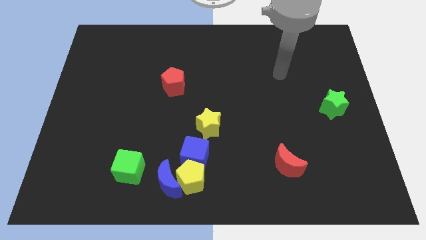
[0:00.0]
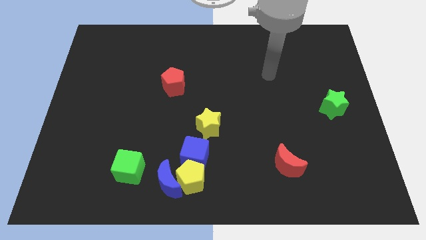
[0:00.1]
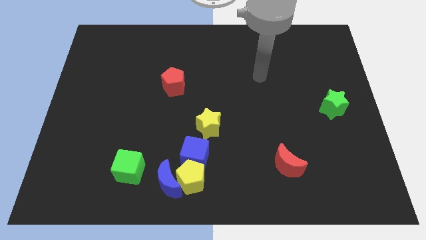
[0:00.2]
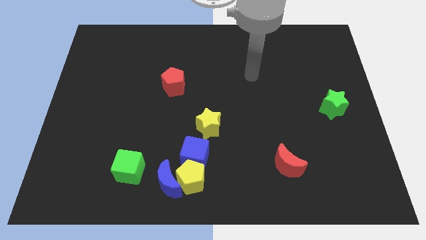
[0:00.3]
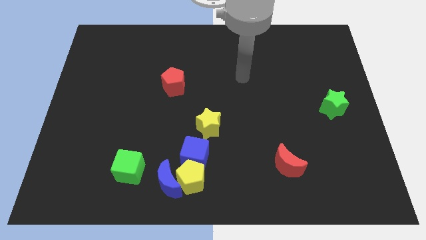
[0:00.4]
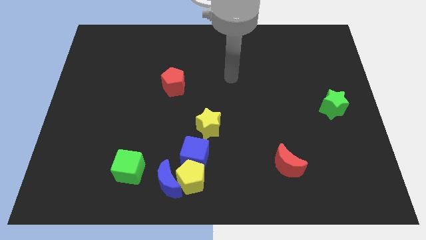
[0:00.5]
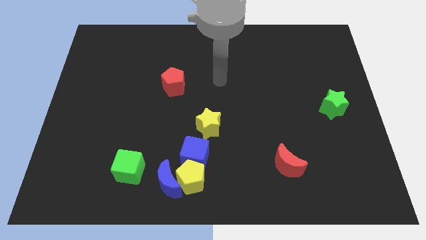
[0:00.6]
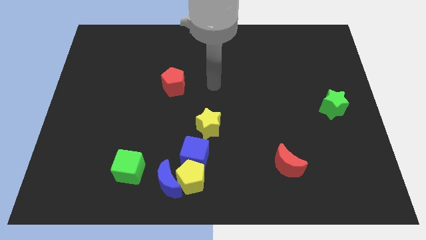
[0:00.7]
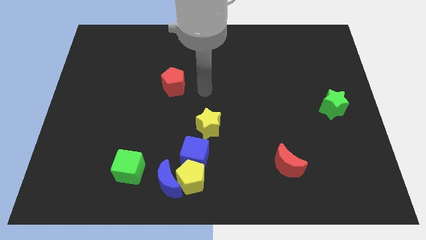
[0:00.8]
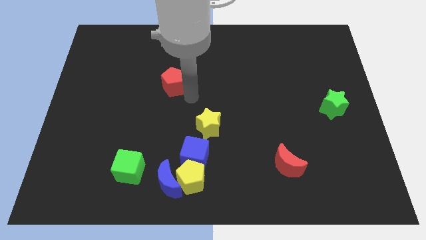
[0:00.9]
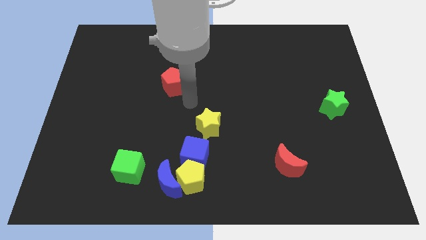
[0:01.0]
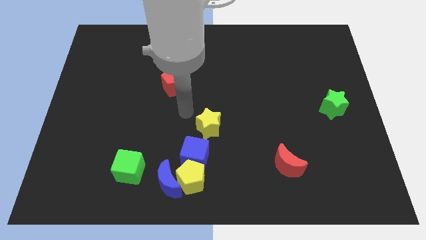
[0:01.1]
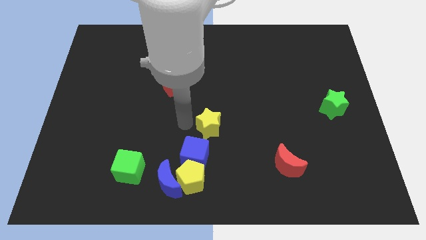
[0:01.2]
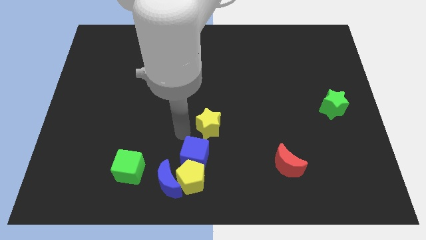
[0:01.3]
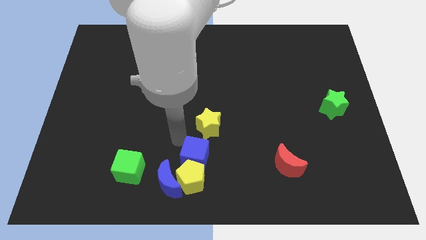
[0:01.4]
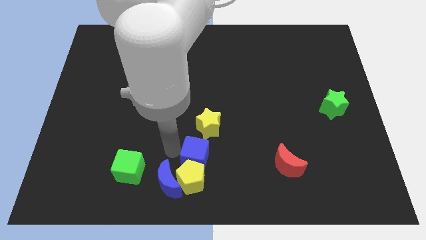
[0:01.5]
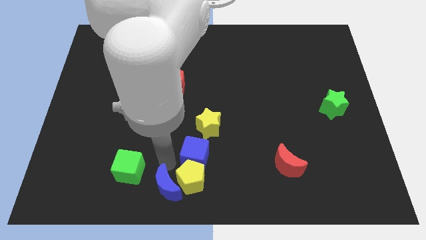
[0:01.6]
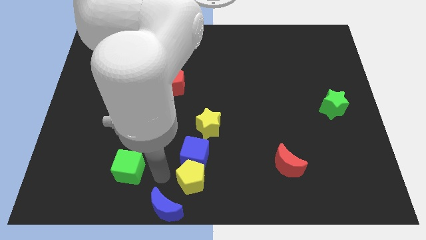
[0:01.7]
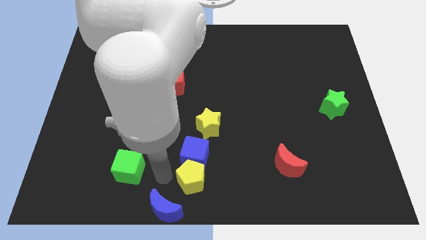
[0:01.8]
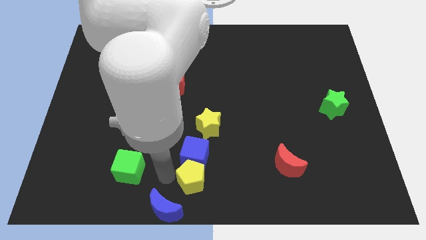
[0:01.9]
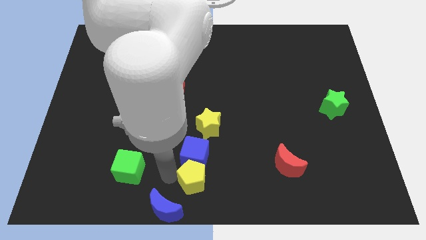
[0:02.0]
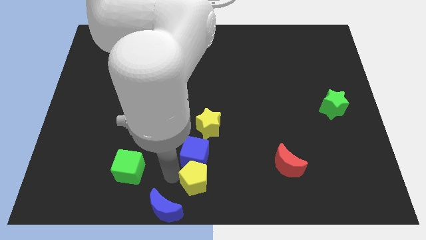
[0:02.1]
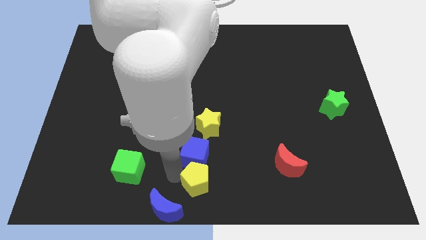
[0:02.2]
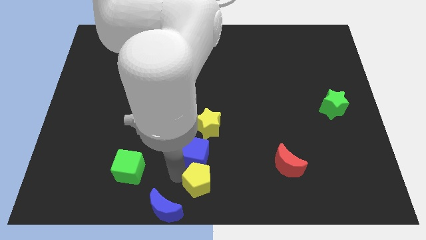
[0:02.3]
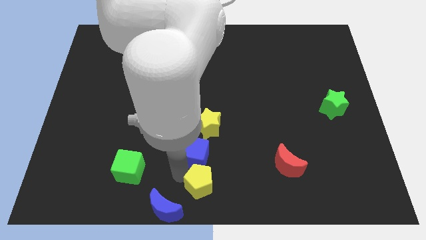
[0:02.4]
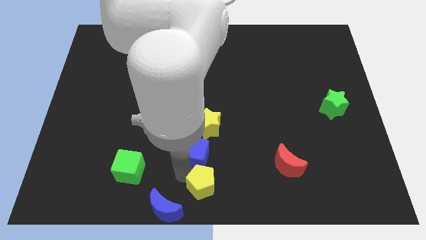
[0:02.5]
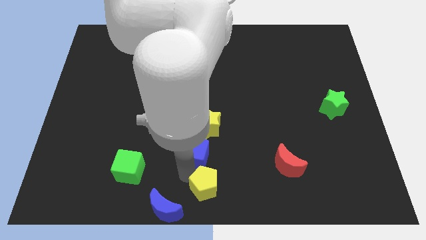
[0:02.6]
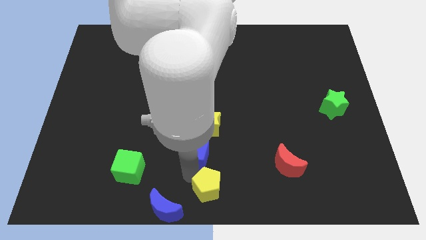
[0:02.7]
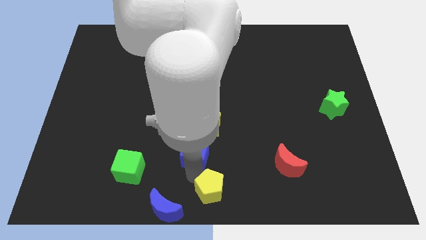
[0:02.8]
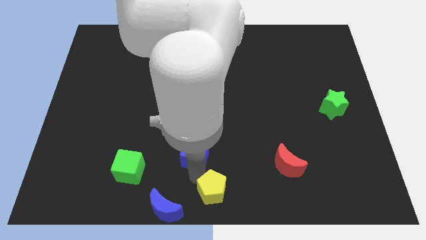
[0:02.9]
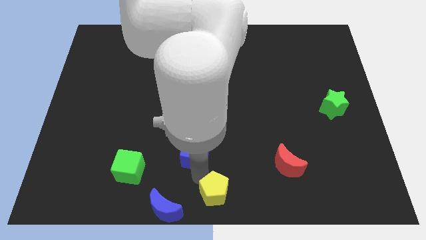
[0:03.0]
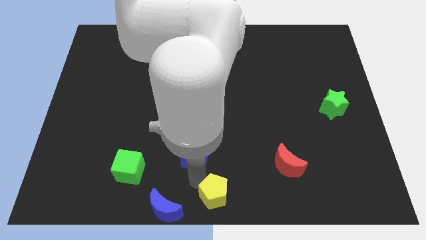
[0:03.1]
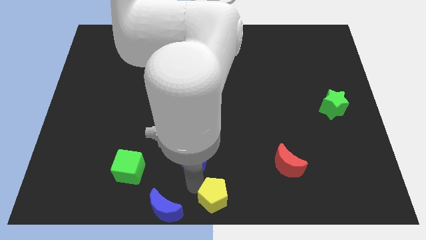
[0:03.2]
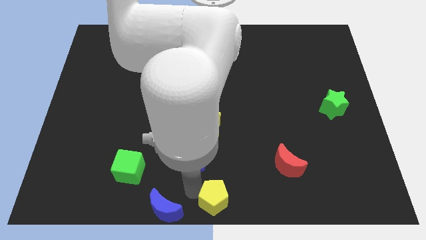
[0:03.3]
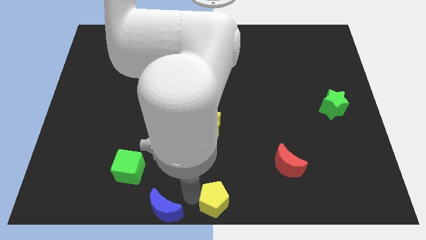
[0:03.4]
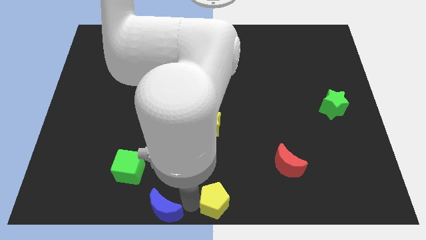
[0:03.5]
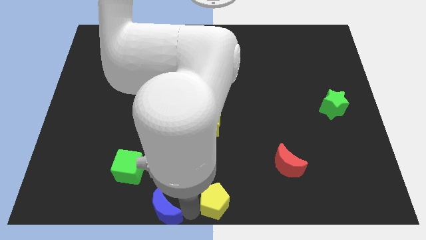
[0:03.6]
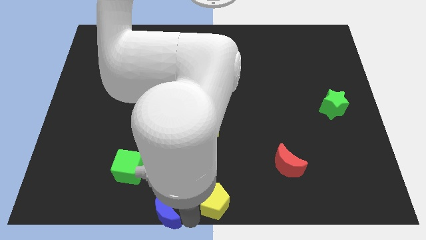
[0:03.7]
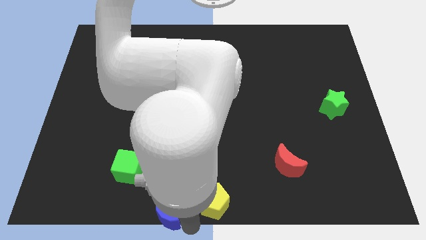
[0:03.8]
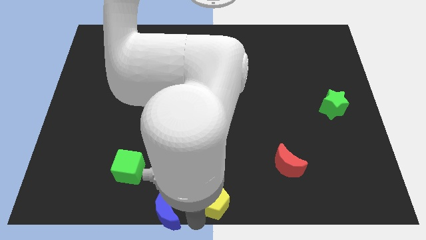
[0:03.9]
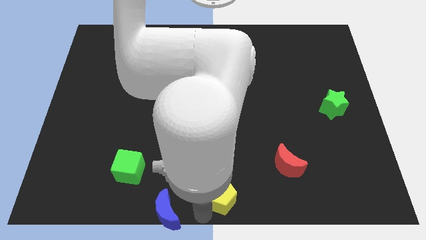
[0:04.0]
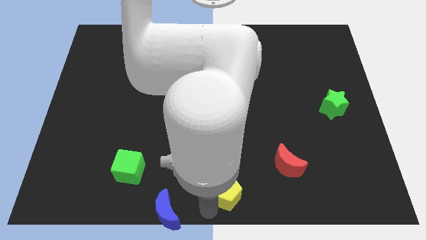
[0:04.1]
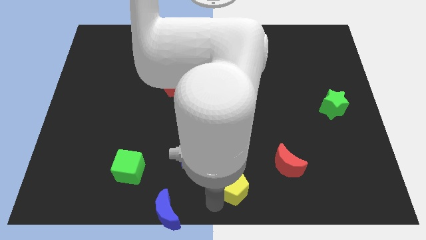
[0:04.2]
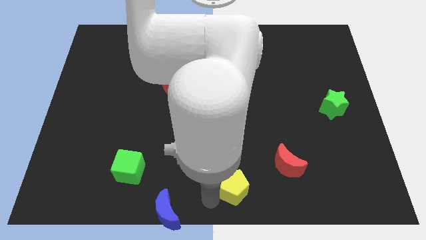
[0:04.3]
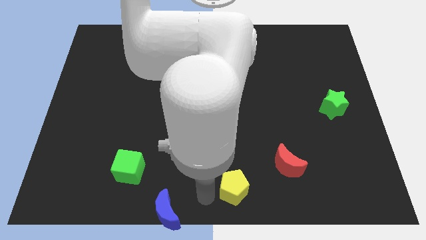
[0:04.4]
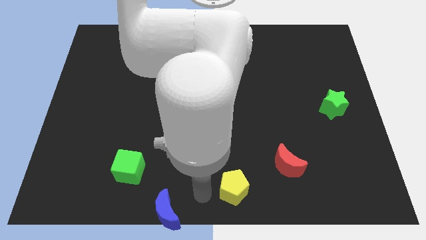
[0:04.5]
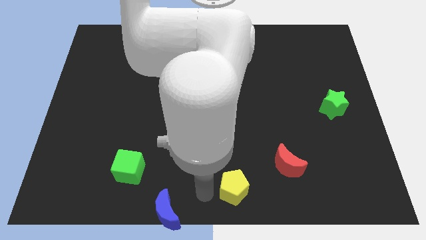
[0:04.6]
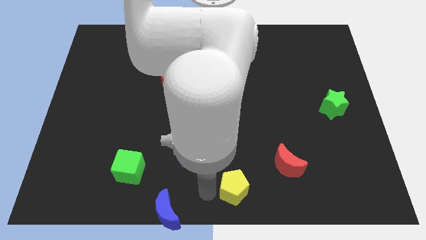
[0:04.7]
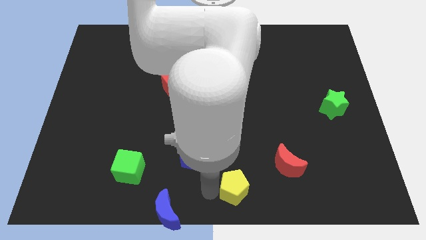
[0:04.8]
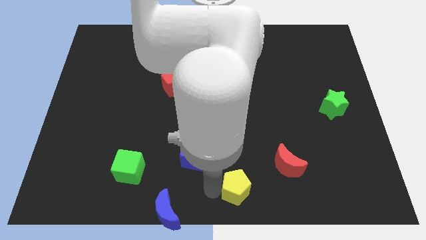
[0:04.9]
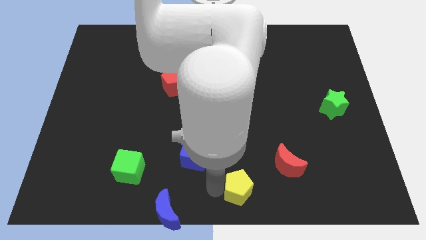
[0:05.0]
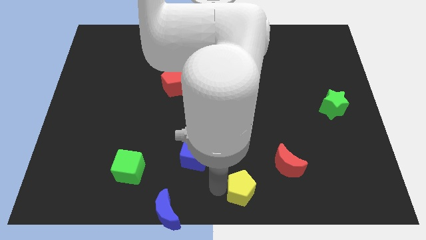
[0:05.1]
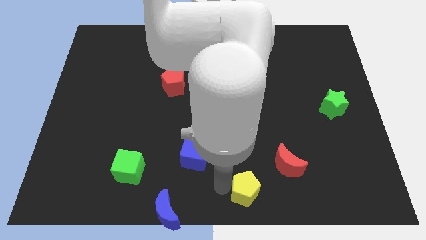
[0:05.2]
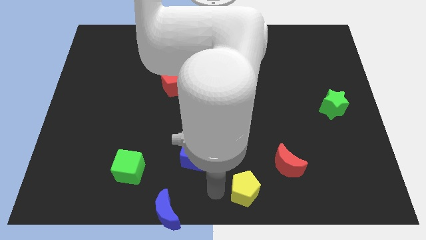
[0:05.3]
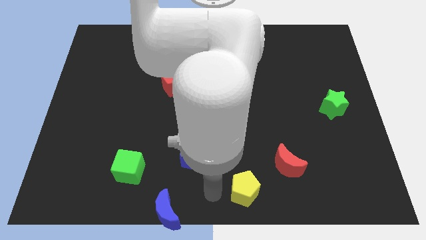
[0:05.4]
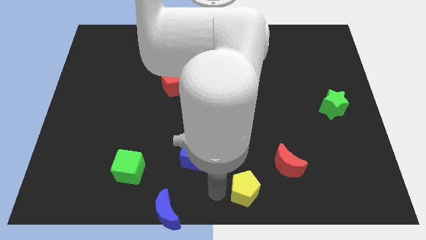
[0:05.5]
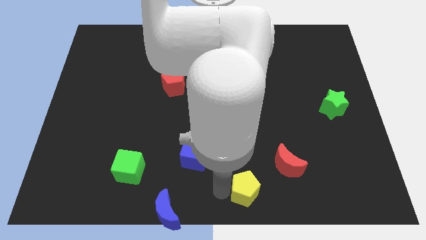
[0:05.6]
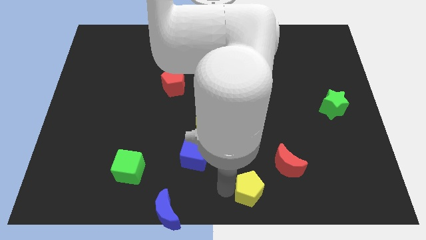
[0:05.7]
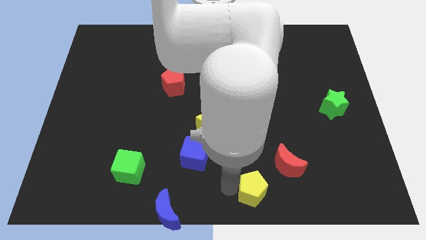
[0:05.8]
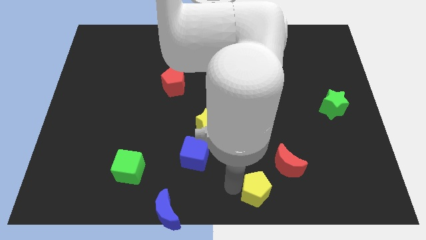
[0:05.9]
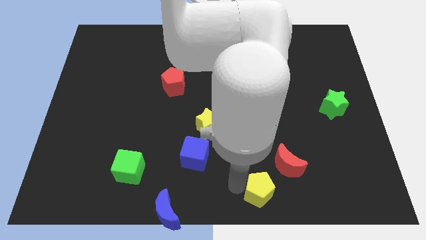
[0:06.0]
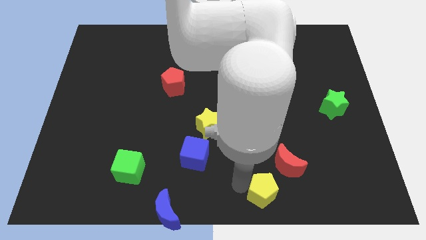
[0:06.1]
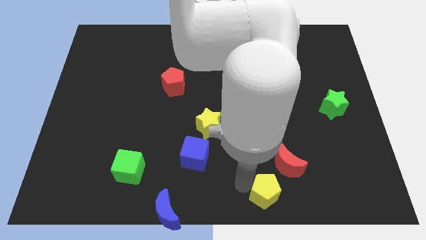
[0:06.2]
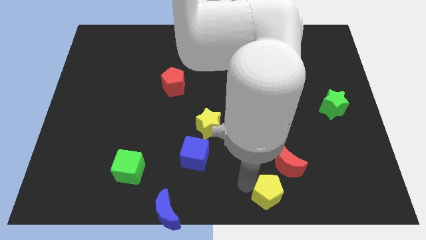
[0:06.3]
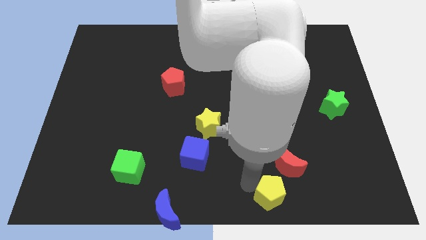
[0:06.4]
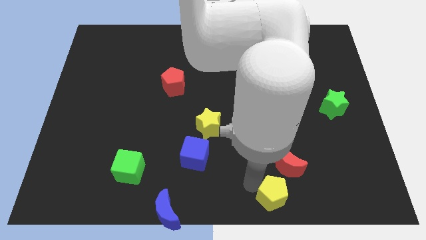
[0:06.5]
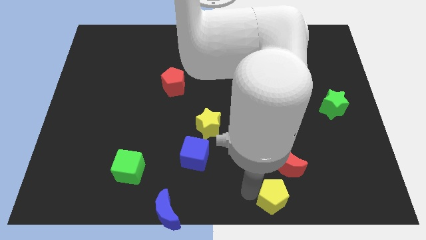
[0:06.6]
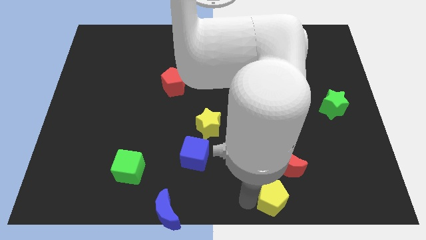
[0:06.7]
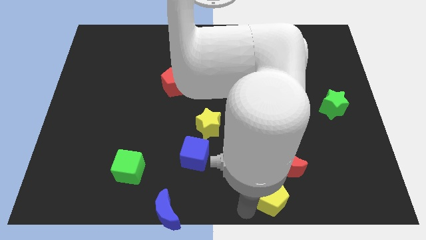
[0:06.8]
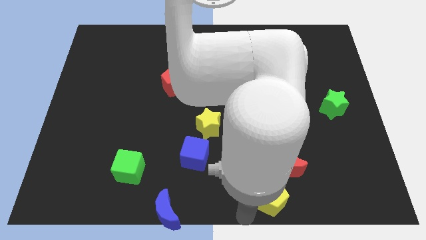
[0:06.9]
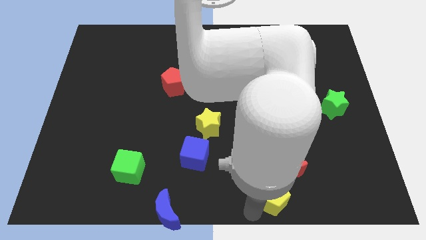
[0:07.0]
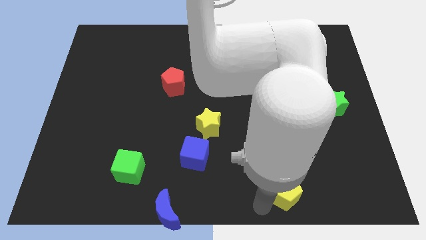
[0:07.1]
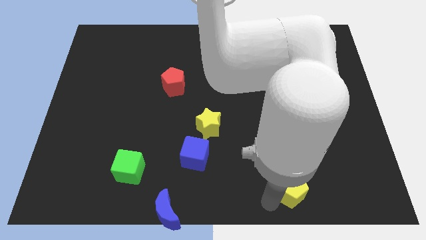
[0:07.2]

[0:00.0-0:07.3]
move the yellow pentagon to the right

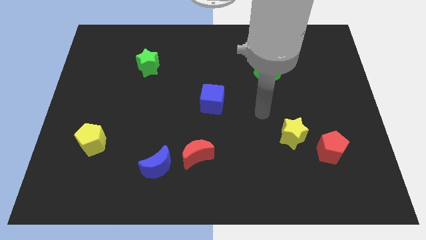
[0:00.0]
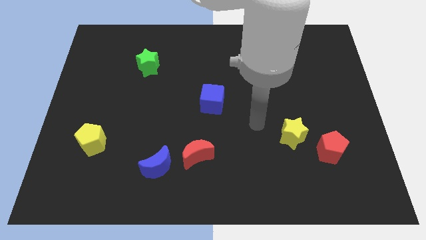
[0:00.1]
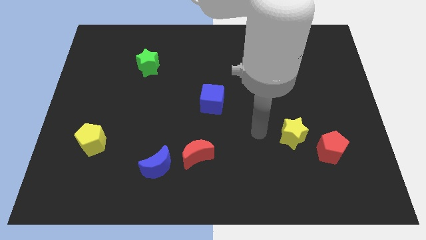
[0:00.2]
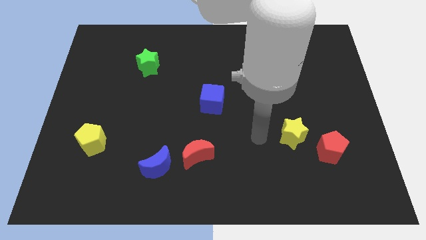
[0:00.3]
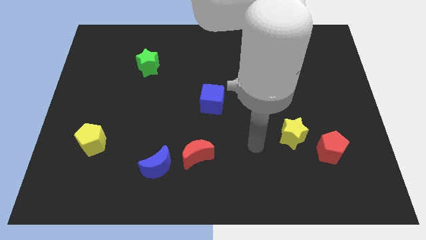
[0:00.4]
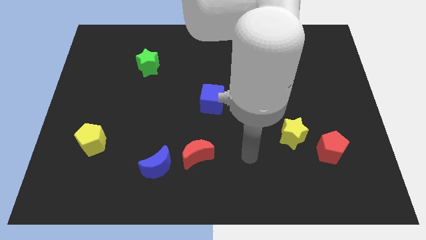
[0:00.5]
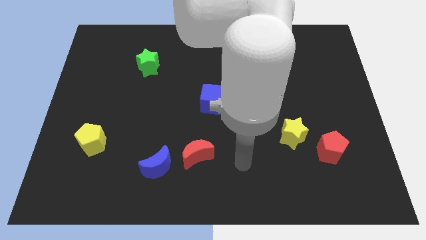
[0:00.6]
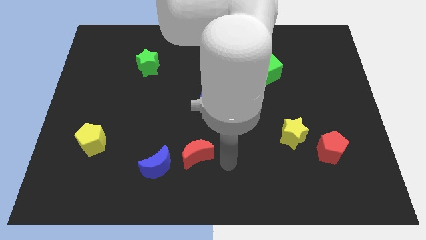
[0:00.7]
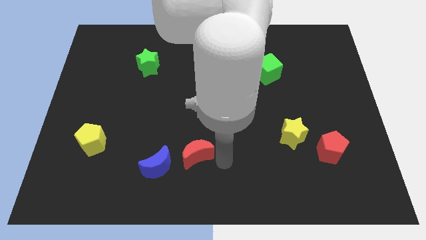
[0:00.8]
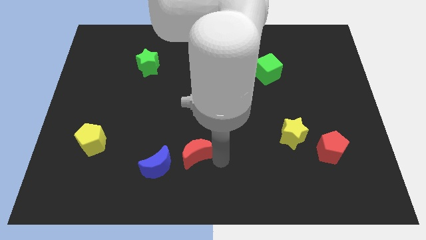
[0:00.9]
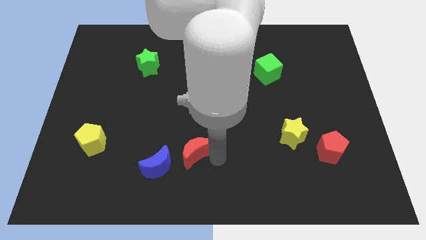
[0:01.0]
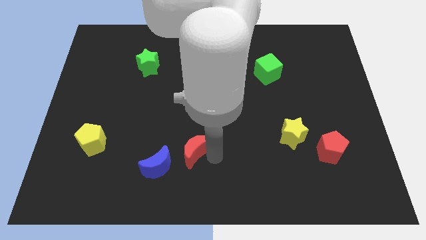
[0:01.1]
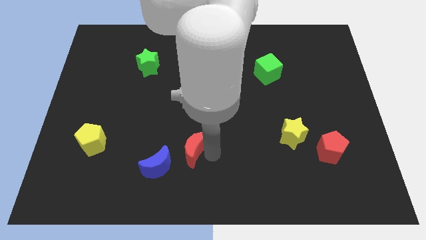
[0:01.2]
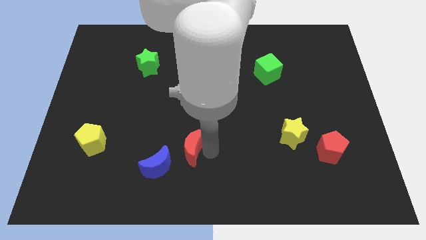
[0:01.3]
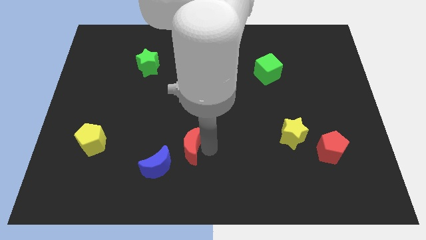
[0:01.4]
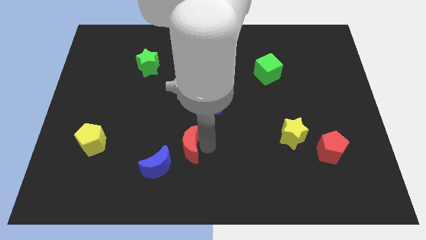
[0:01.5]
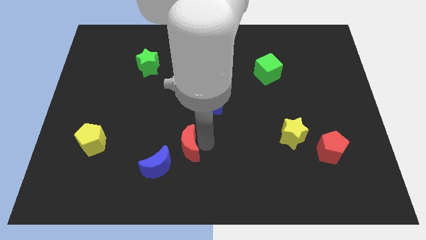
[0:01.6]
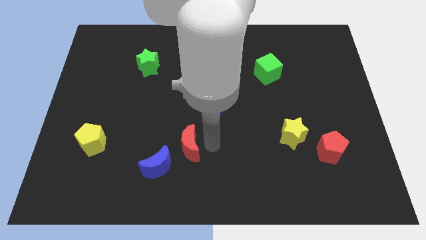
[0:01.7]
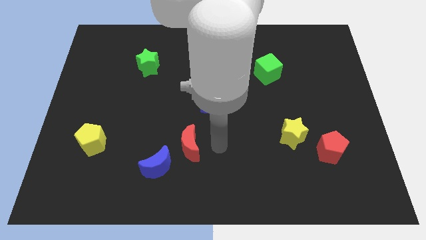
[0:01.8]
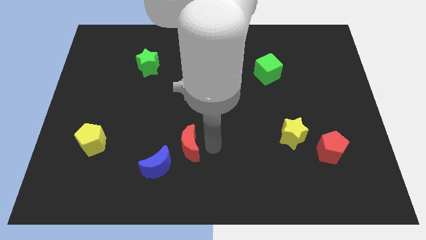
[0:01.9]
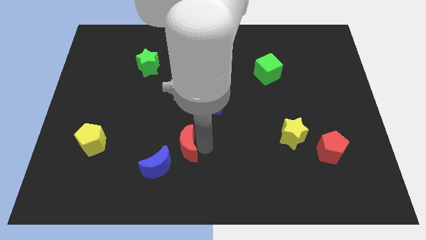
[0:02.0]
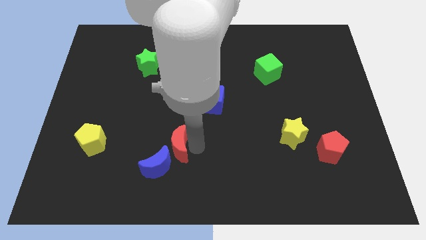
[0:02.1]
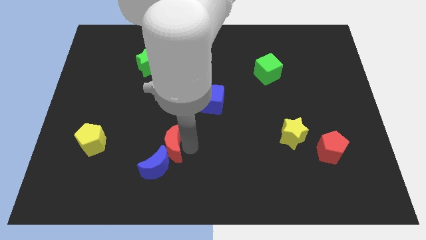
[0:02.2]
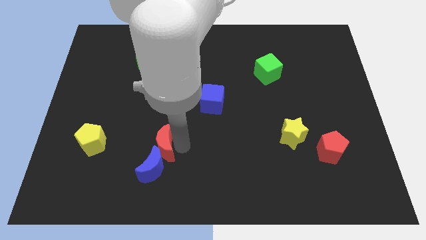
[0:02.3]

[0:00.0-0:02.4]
slide the red moon a bit to the left
